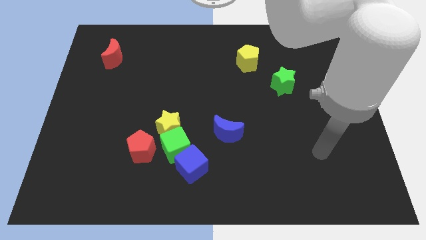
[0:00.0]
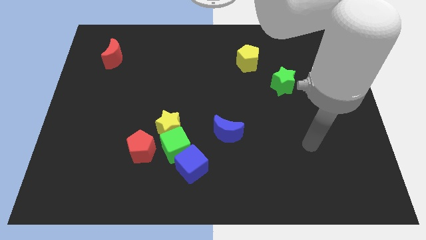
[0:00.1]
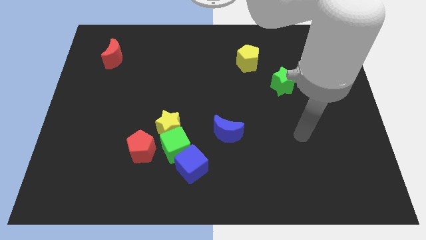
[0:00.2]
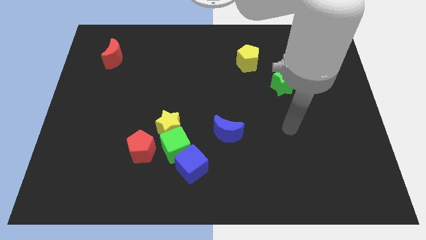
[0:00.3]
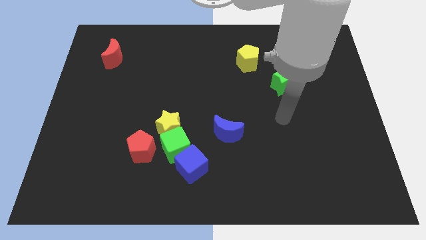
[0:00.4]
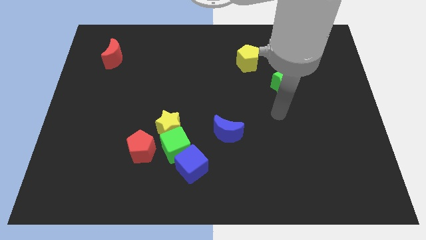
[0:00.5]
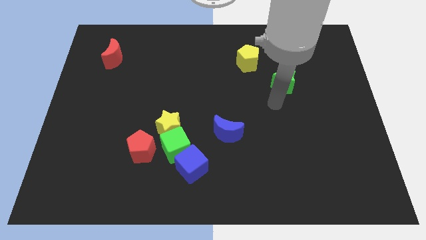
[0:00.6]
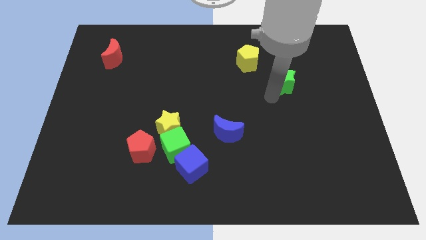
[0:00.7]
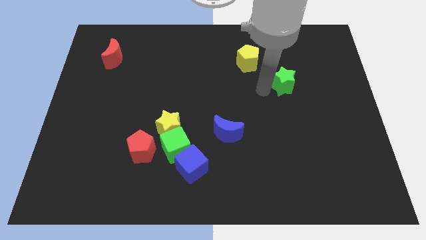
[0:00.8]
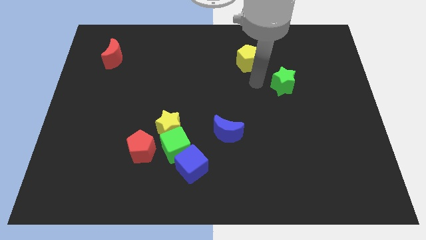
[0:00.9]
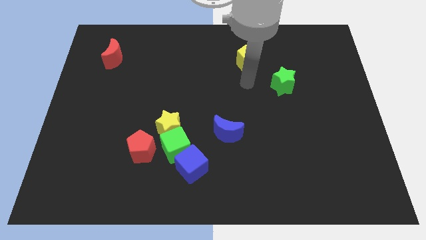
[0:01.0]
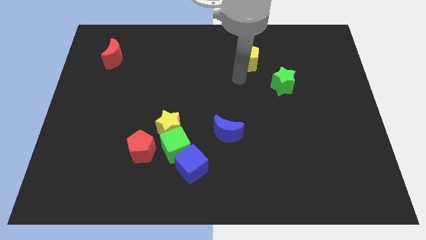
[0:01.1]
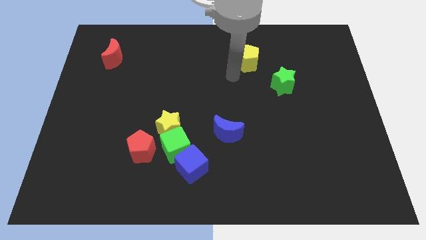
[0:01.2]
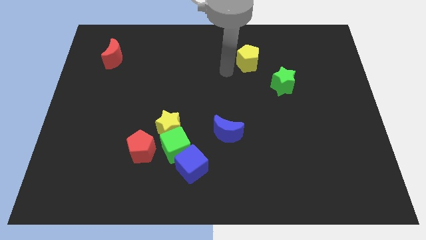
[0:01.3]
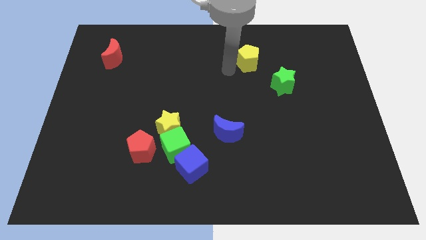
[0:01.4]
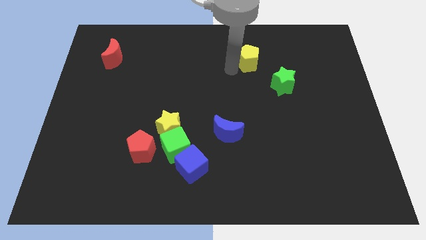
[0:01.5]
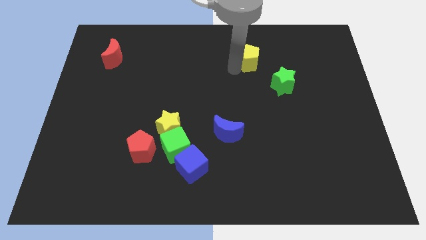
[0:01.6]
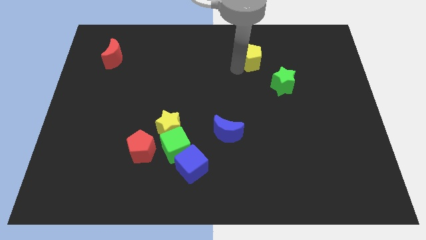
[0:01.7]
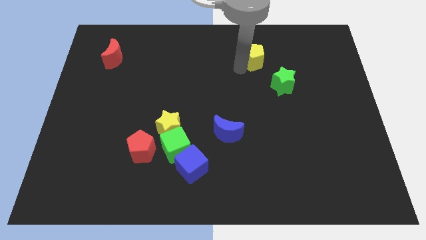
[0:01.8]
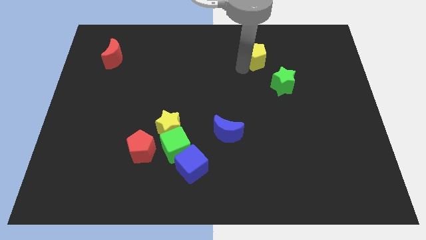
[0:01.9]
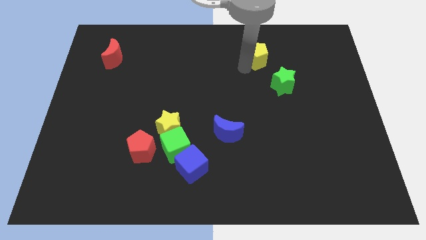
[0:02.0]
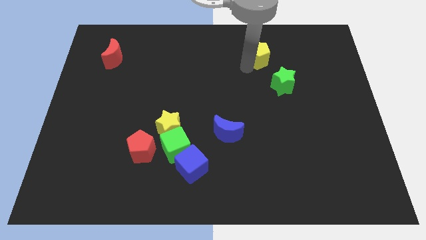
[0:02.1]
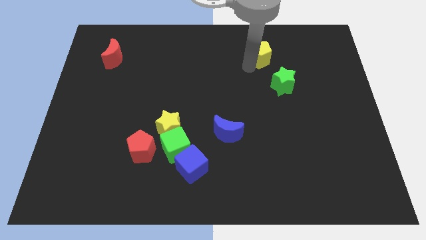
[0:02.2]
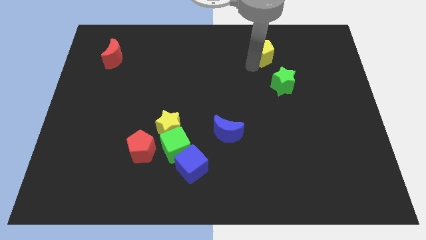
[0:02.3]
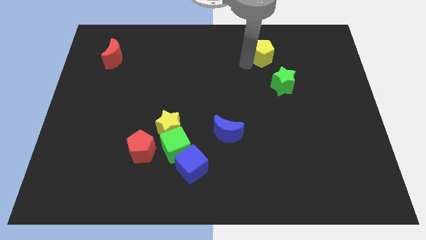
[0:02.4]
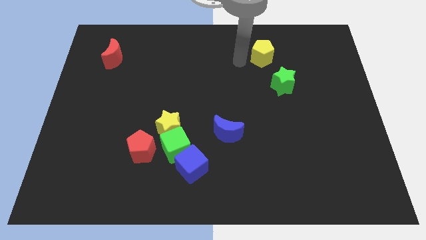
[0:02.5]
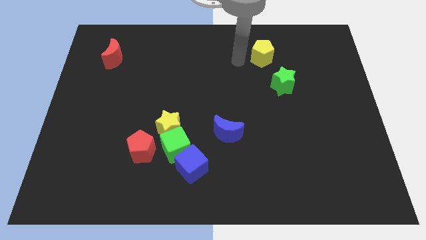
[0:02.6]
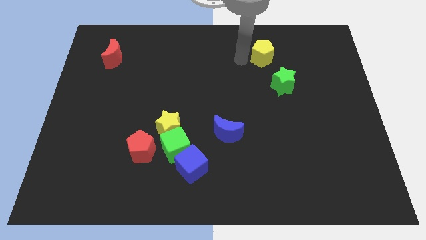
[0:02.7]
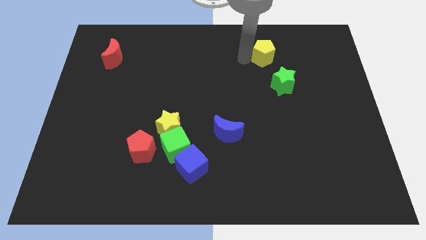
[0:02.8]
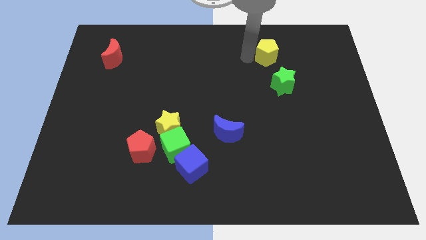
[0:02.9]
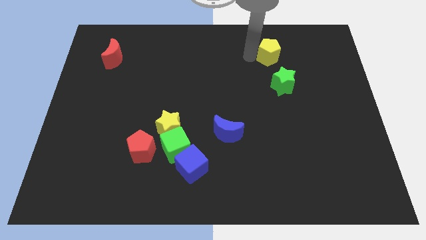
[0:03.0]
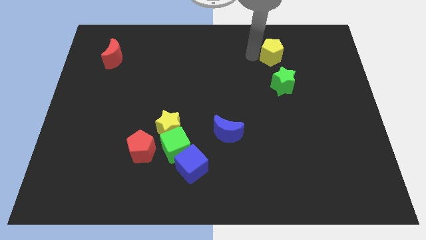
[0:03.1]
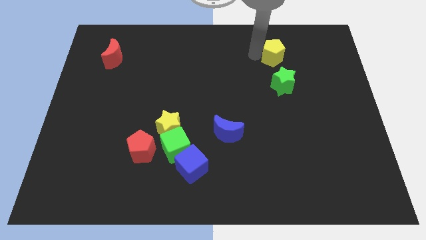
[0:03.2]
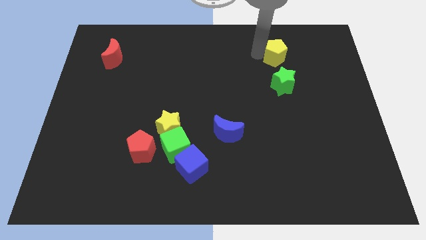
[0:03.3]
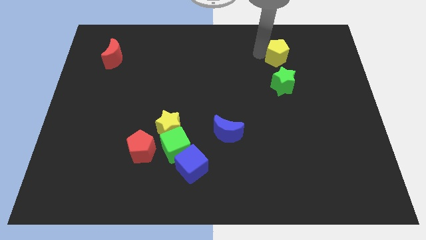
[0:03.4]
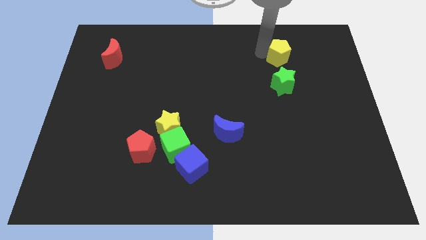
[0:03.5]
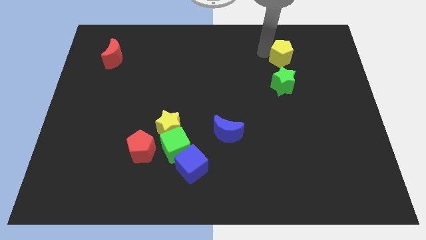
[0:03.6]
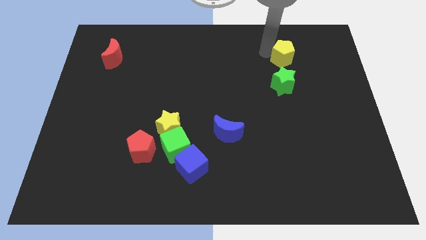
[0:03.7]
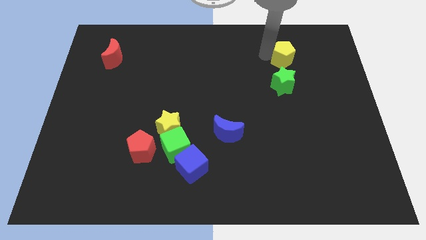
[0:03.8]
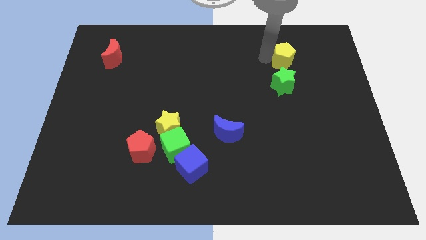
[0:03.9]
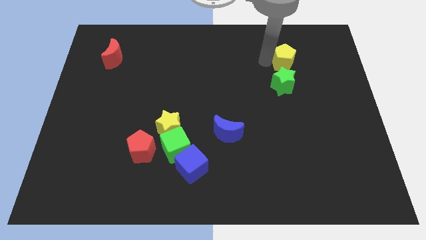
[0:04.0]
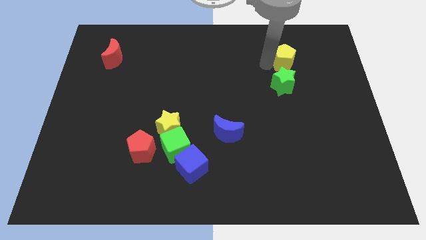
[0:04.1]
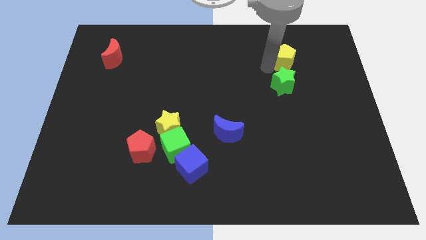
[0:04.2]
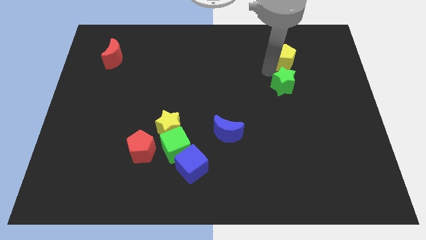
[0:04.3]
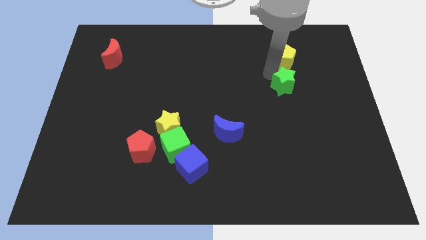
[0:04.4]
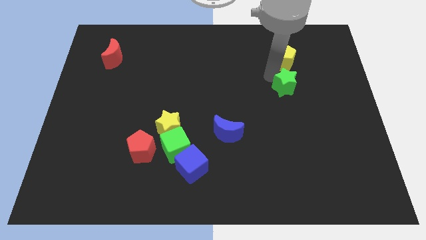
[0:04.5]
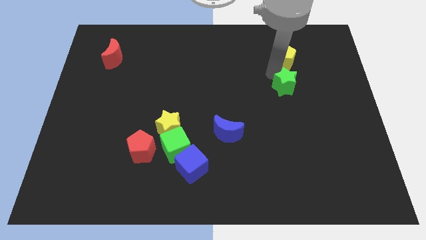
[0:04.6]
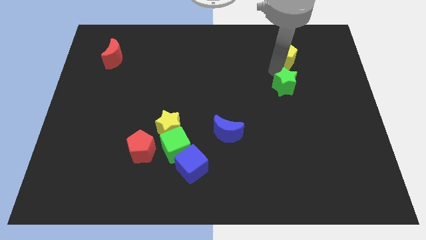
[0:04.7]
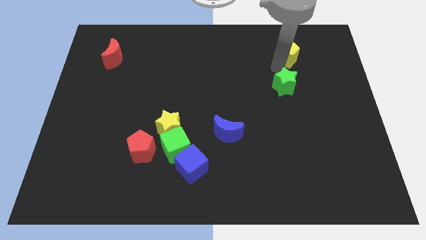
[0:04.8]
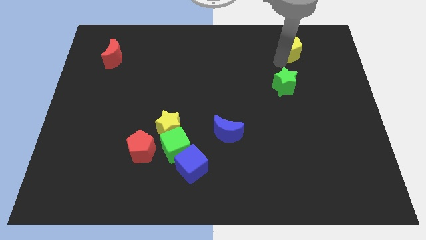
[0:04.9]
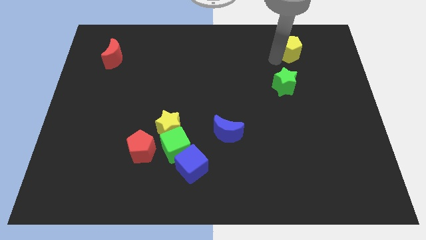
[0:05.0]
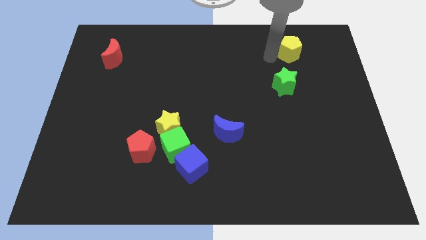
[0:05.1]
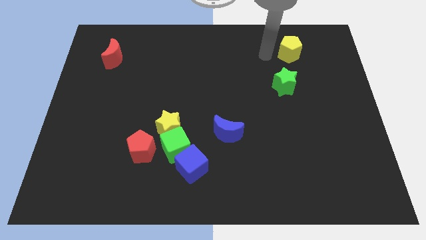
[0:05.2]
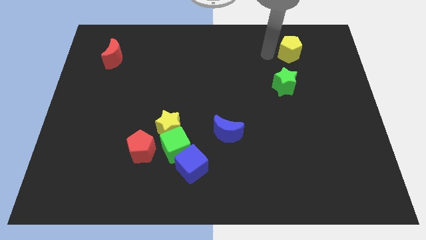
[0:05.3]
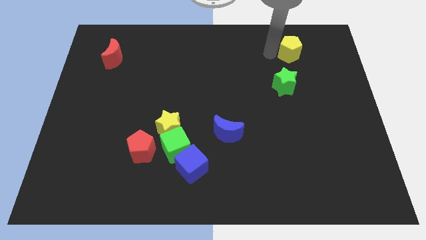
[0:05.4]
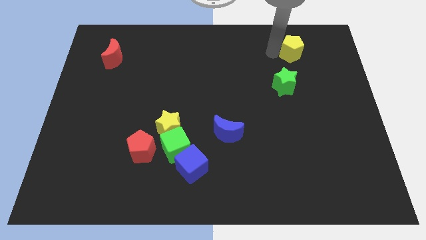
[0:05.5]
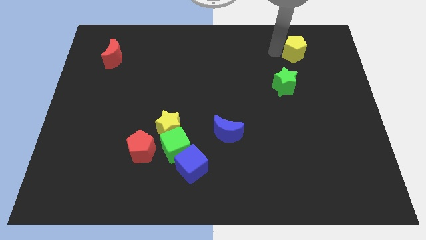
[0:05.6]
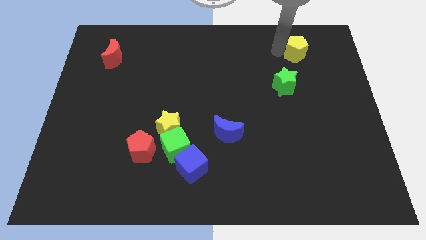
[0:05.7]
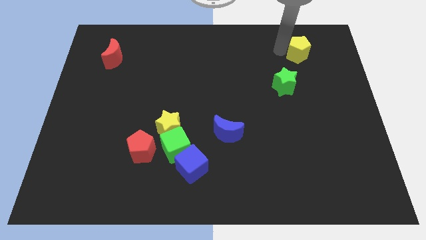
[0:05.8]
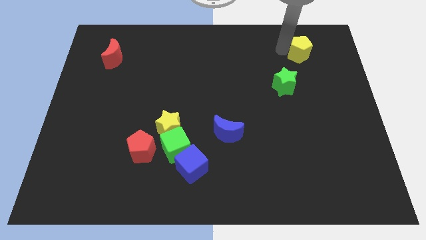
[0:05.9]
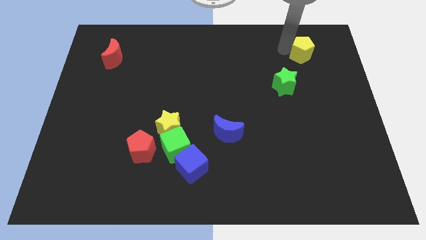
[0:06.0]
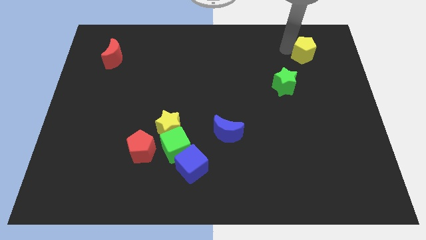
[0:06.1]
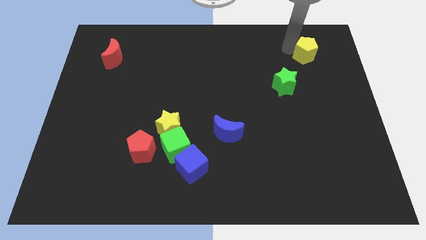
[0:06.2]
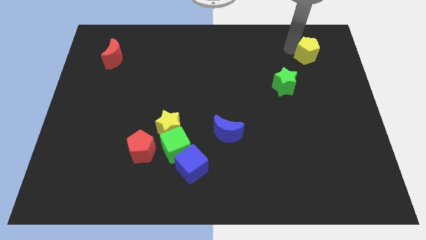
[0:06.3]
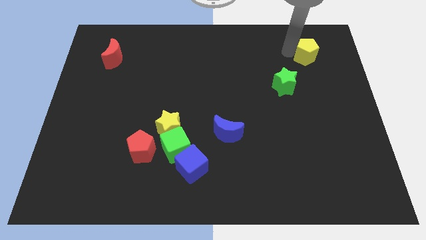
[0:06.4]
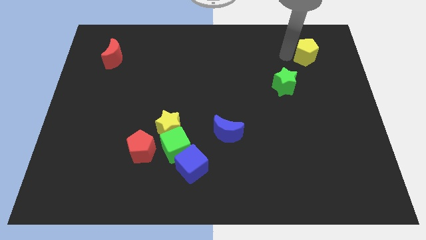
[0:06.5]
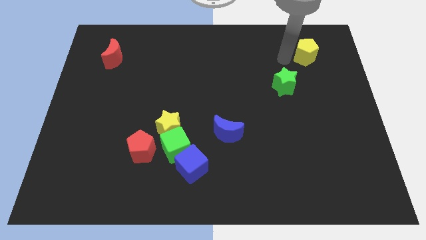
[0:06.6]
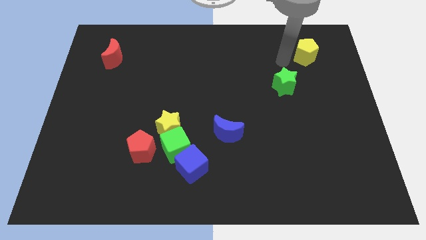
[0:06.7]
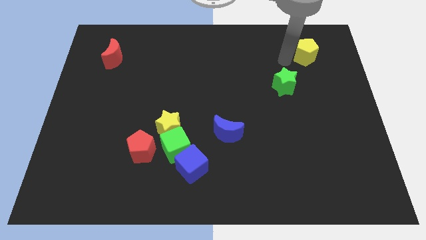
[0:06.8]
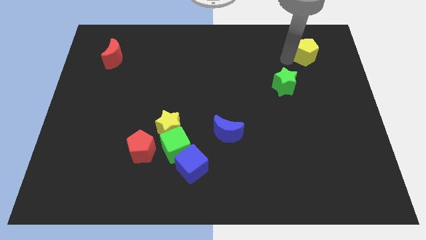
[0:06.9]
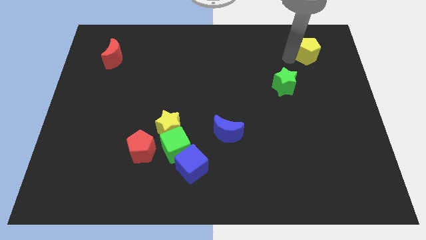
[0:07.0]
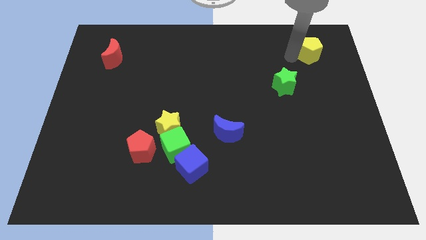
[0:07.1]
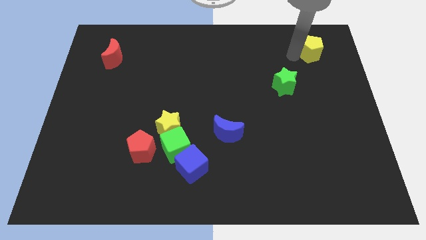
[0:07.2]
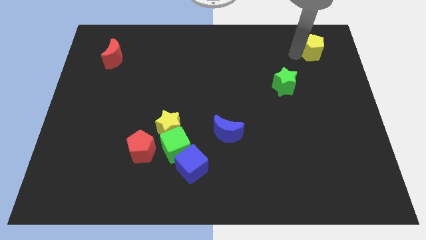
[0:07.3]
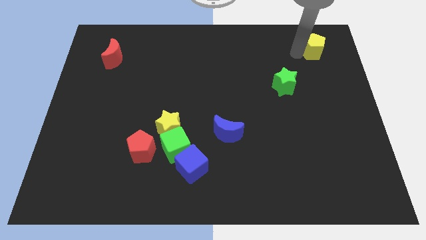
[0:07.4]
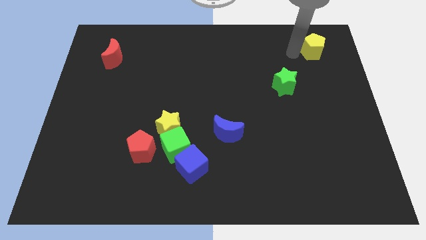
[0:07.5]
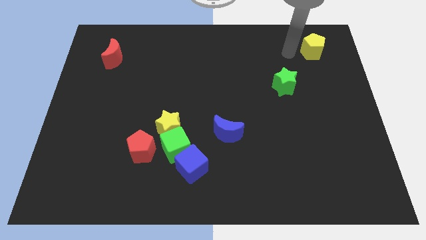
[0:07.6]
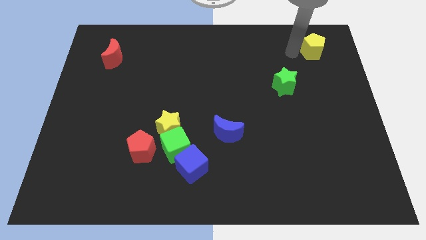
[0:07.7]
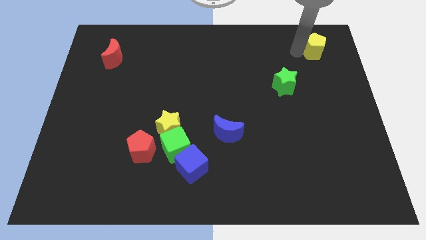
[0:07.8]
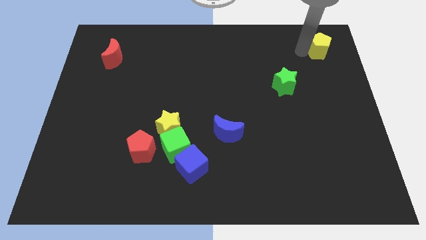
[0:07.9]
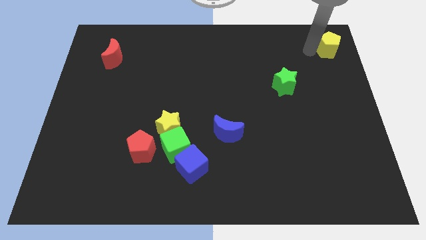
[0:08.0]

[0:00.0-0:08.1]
move the yellow pentagon to the top right corner
